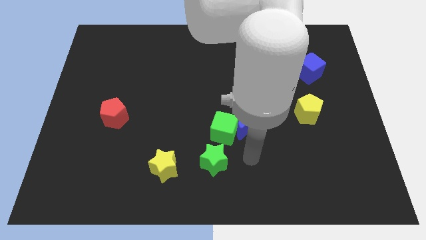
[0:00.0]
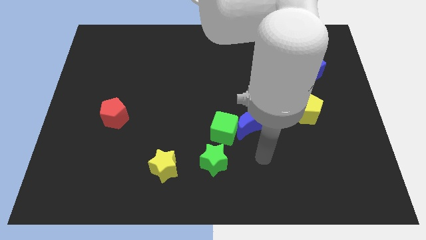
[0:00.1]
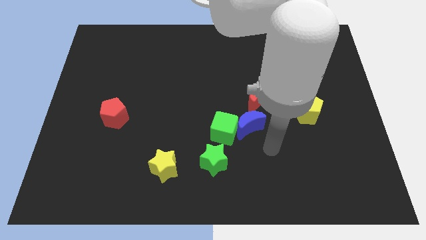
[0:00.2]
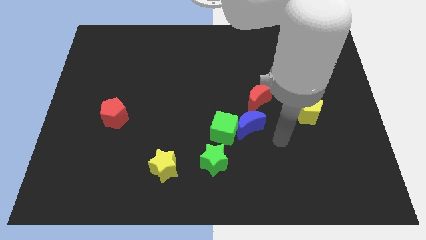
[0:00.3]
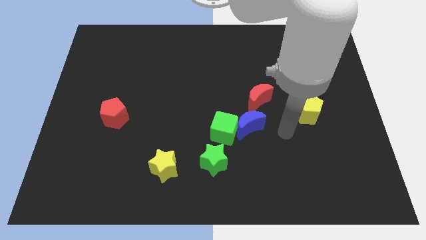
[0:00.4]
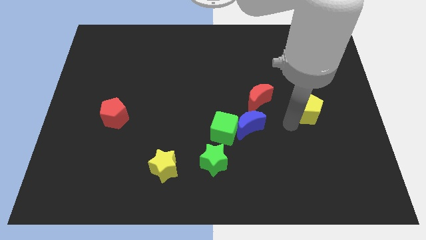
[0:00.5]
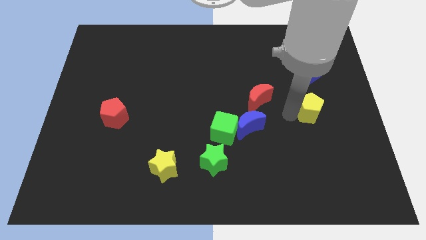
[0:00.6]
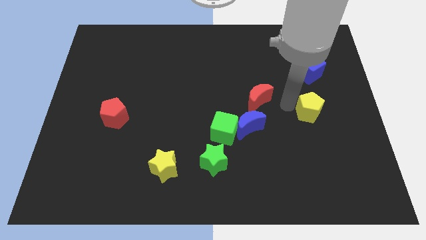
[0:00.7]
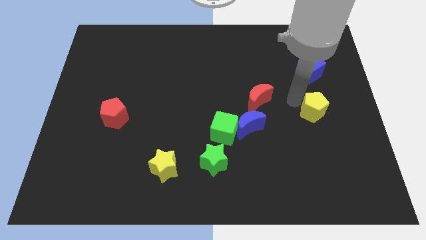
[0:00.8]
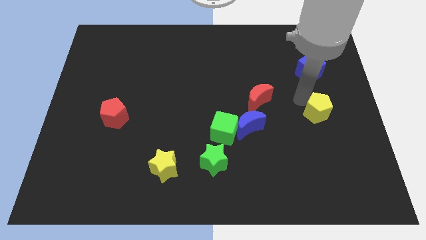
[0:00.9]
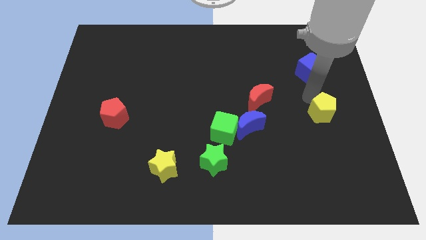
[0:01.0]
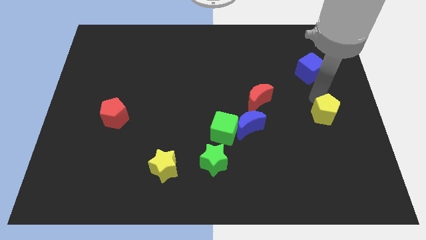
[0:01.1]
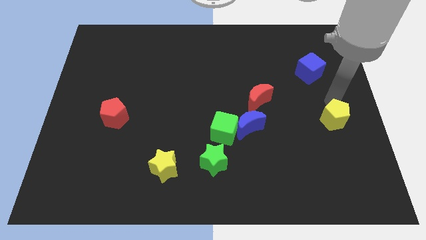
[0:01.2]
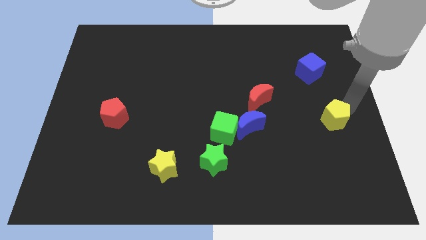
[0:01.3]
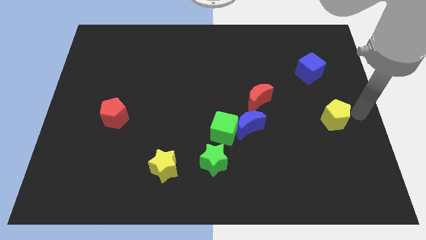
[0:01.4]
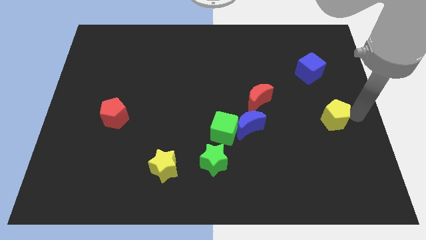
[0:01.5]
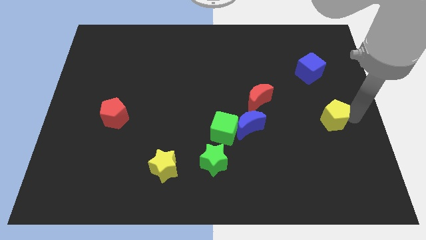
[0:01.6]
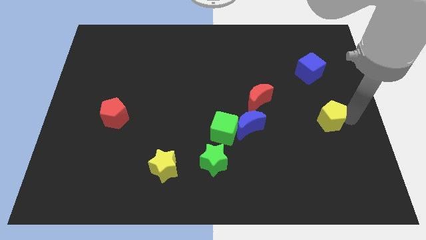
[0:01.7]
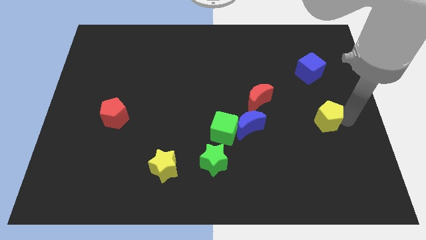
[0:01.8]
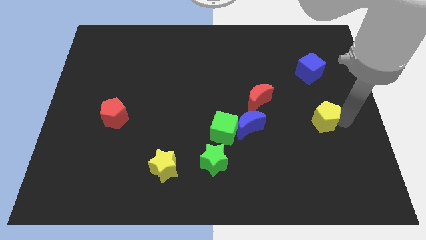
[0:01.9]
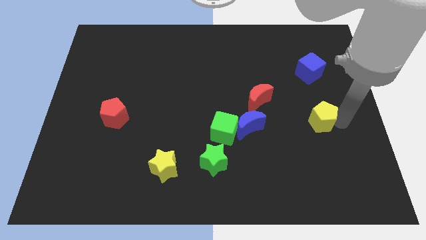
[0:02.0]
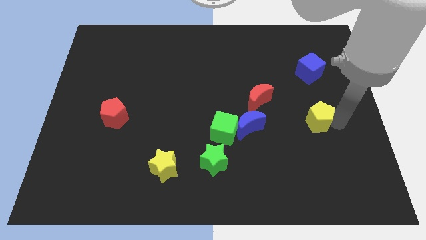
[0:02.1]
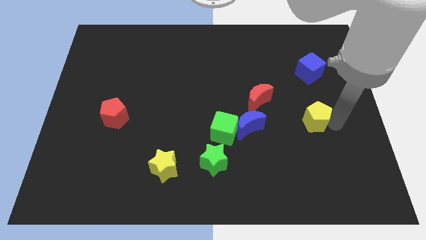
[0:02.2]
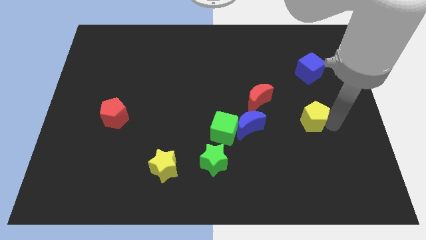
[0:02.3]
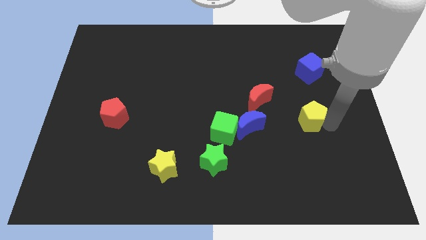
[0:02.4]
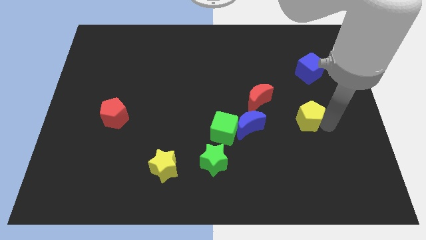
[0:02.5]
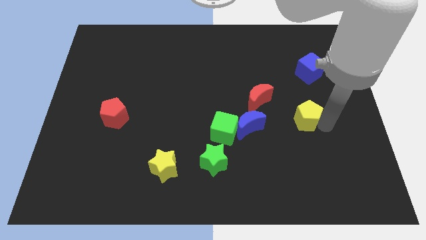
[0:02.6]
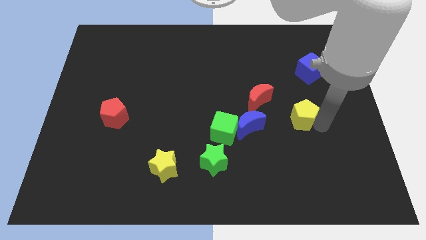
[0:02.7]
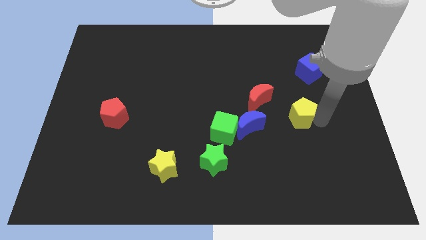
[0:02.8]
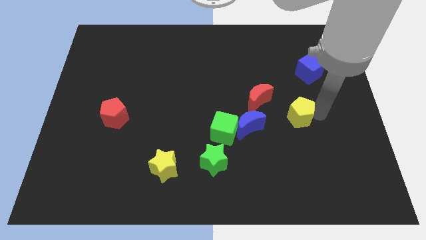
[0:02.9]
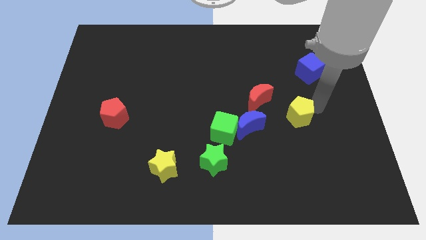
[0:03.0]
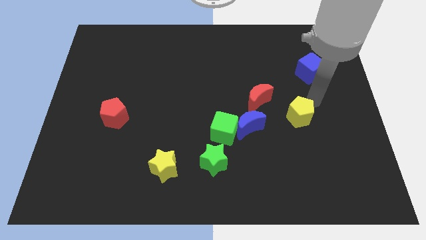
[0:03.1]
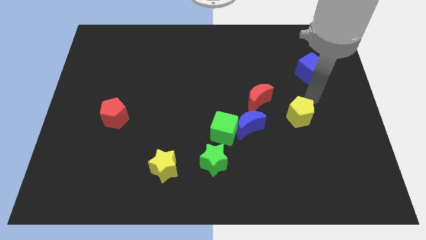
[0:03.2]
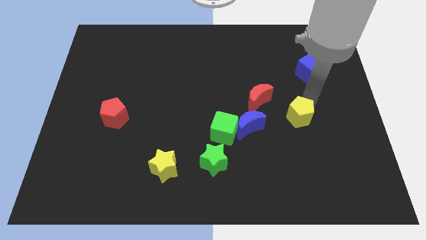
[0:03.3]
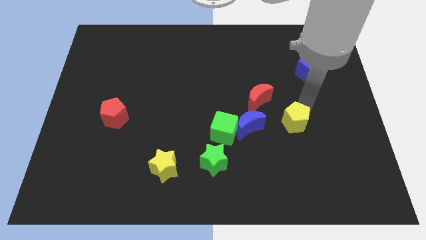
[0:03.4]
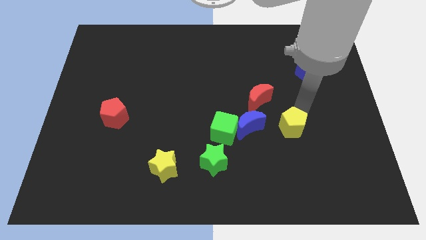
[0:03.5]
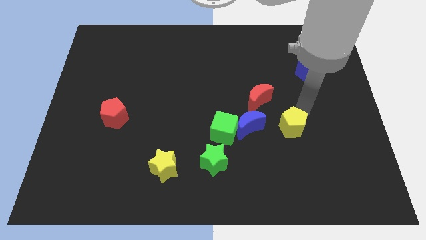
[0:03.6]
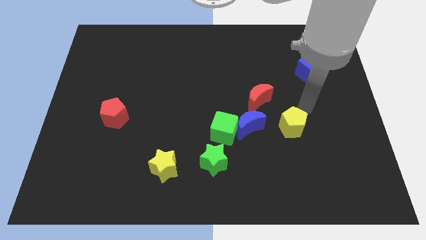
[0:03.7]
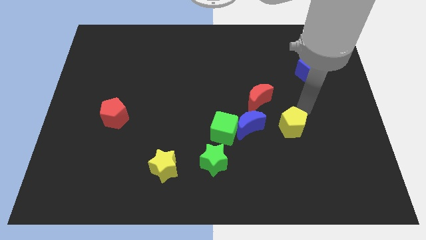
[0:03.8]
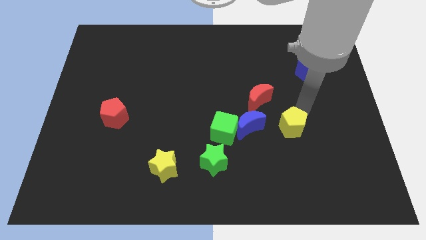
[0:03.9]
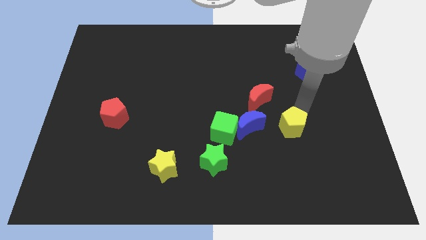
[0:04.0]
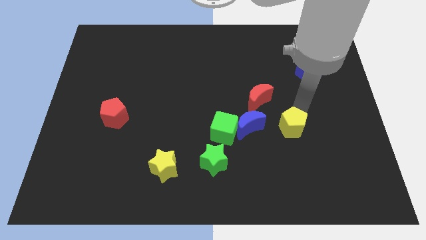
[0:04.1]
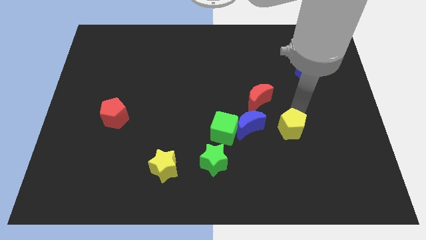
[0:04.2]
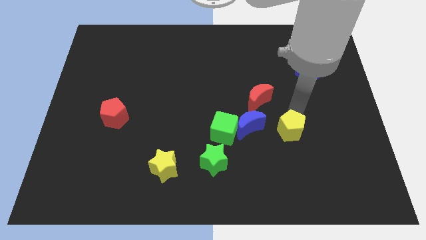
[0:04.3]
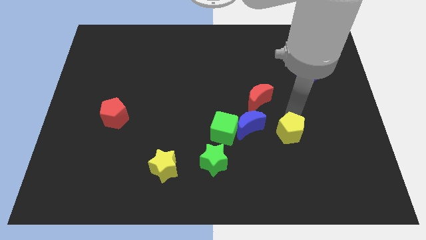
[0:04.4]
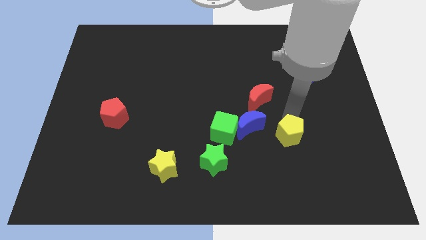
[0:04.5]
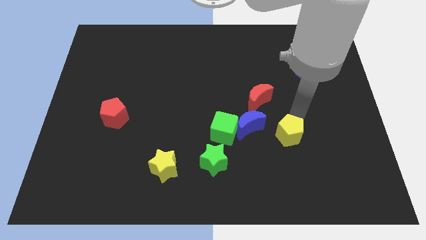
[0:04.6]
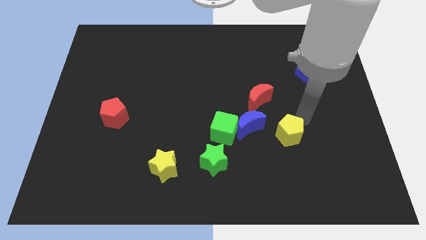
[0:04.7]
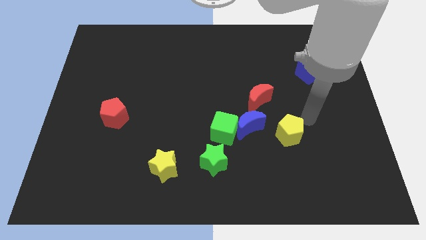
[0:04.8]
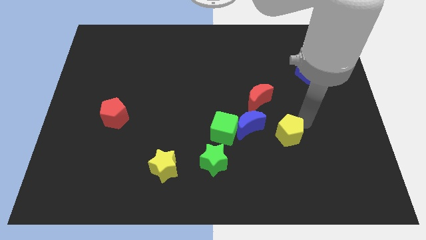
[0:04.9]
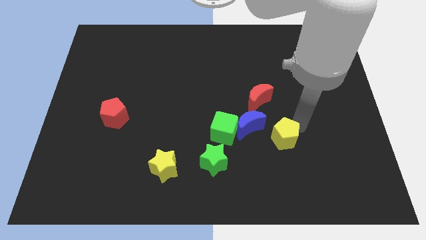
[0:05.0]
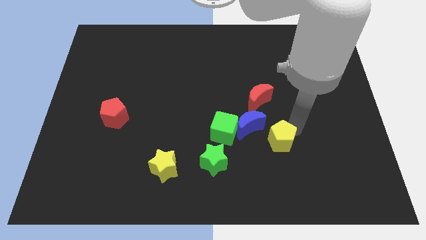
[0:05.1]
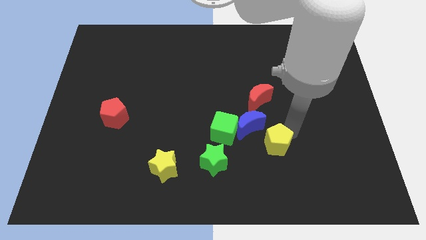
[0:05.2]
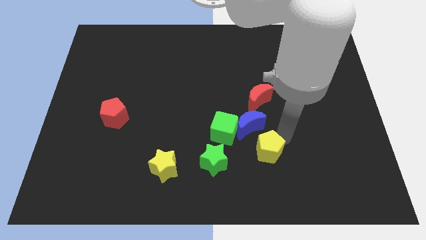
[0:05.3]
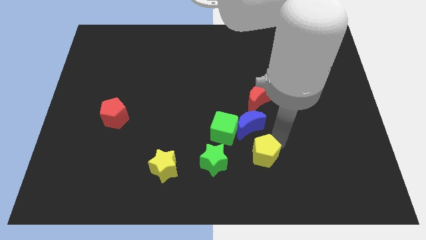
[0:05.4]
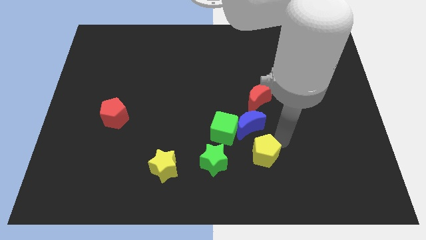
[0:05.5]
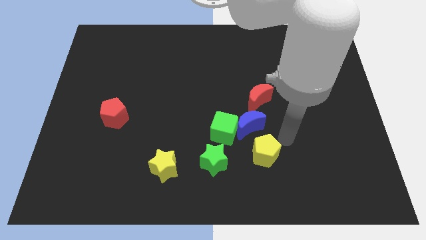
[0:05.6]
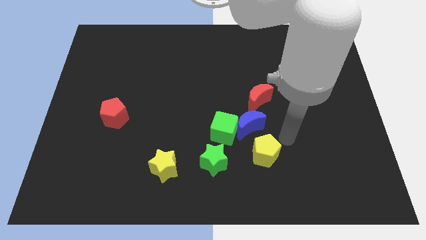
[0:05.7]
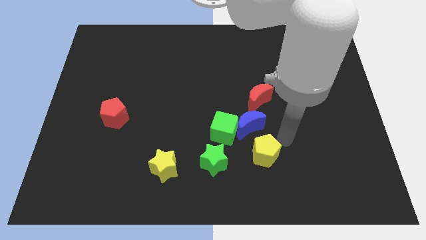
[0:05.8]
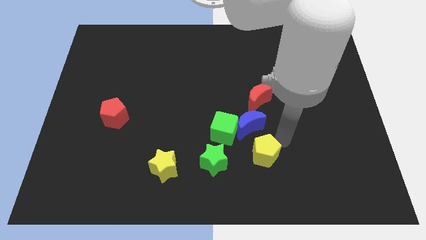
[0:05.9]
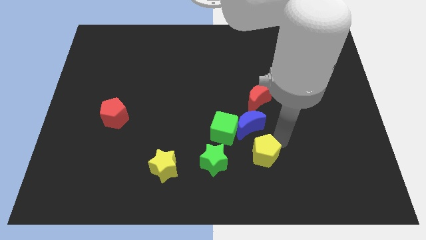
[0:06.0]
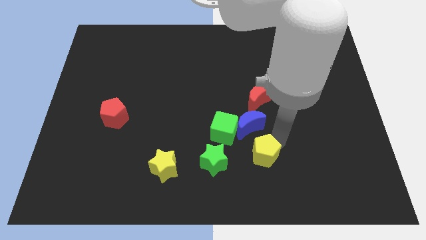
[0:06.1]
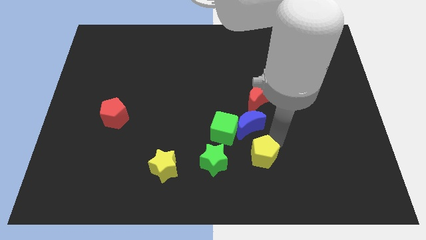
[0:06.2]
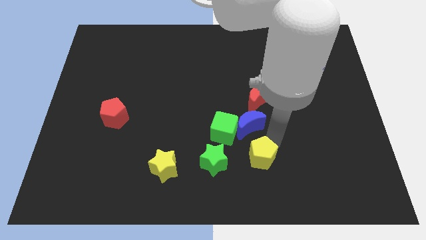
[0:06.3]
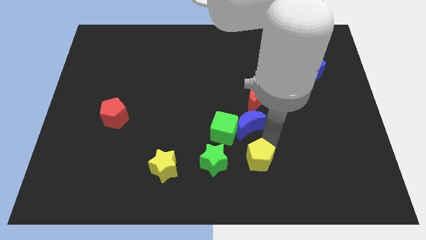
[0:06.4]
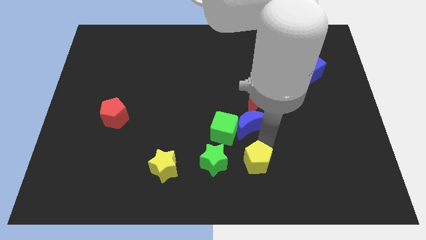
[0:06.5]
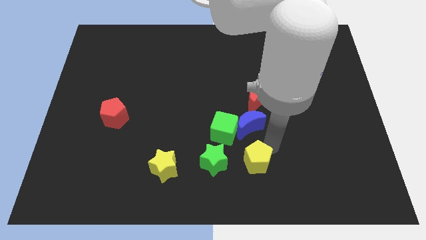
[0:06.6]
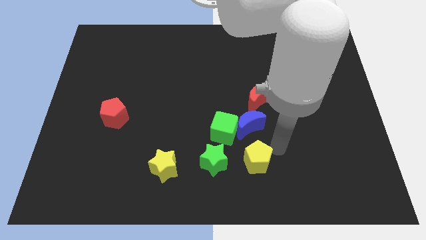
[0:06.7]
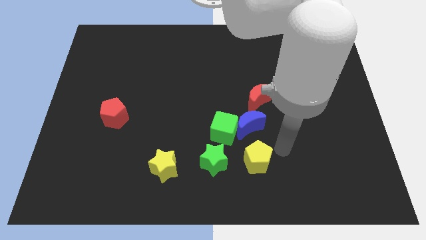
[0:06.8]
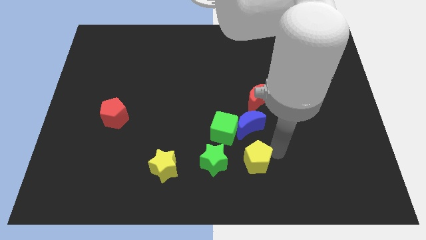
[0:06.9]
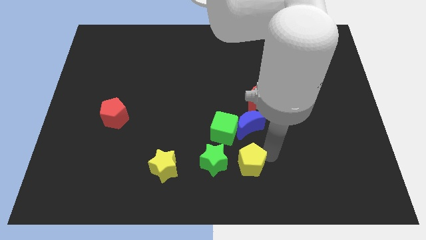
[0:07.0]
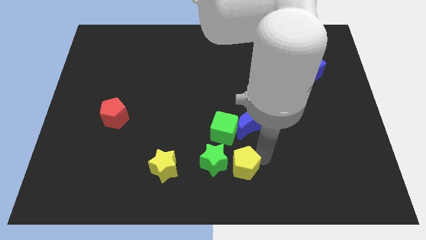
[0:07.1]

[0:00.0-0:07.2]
put the yellow pentagon below the green cube
